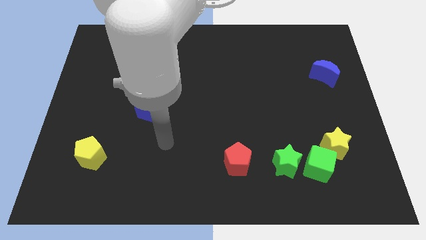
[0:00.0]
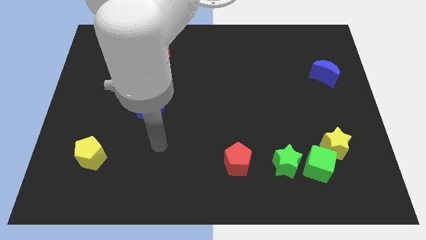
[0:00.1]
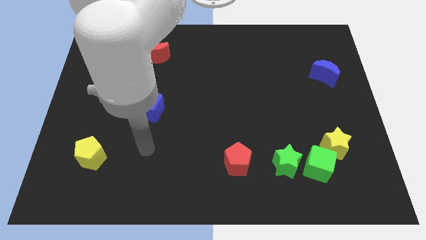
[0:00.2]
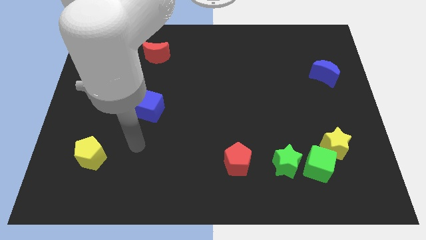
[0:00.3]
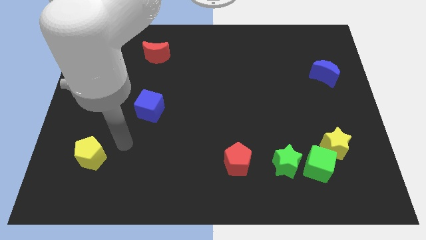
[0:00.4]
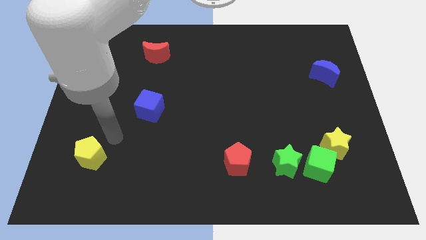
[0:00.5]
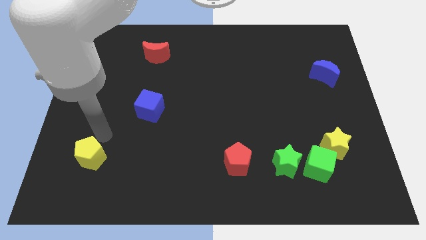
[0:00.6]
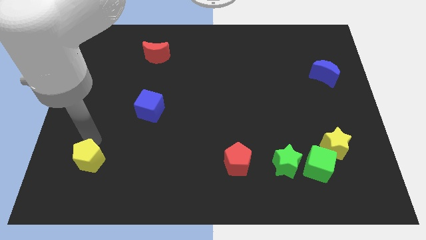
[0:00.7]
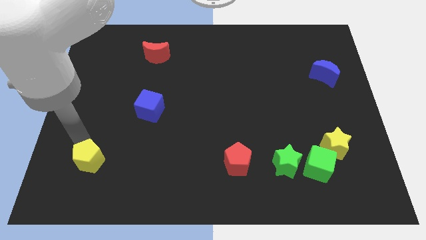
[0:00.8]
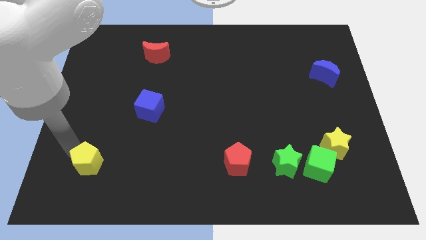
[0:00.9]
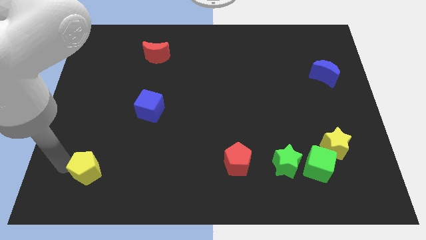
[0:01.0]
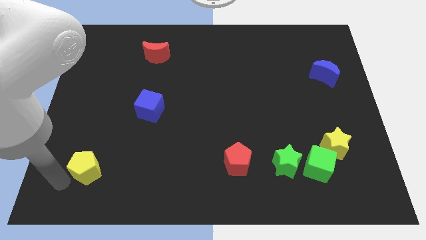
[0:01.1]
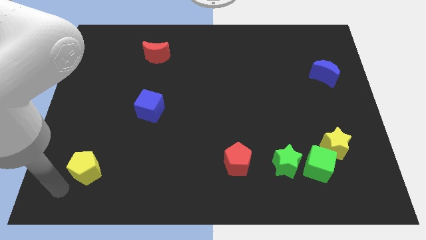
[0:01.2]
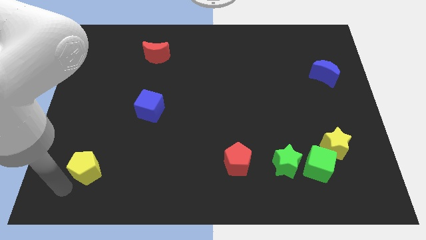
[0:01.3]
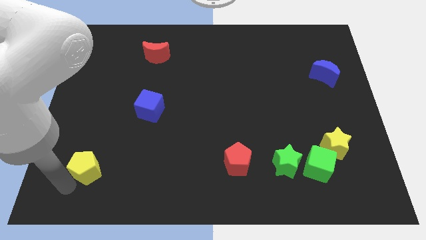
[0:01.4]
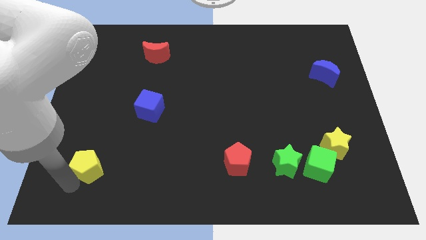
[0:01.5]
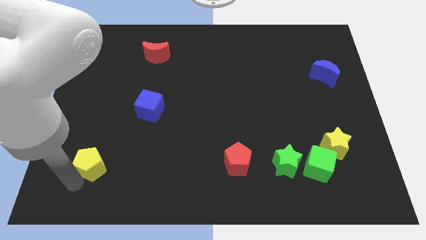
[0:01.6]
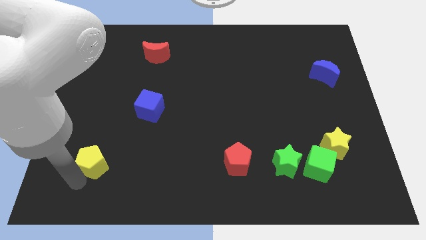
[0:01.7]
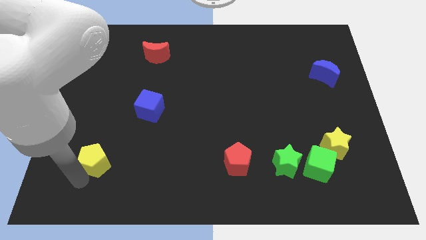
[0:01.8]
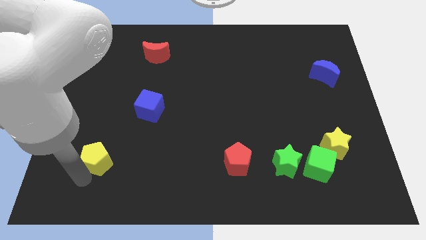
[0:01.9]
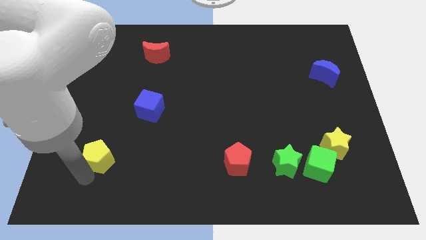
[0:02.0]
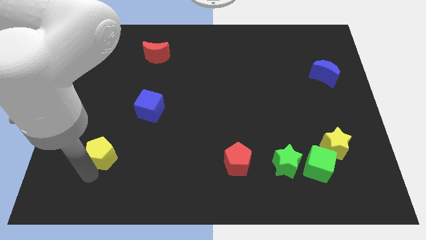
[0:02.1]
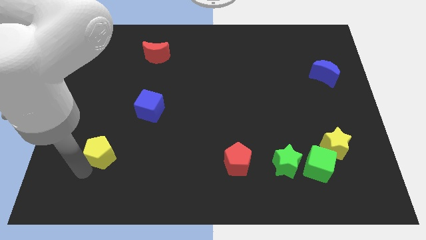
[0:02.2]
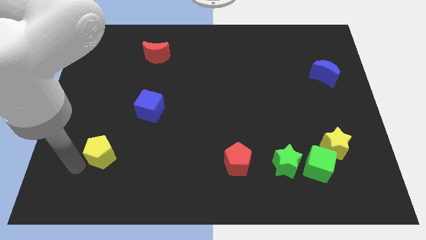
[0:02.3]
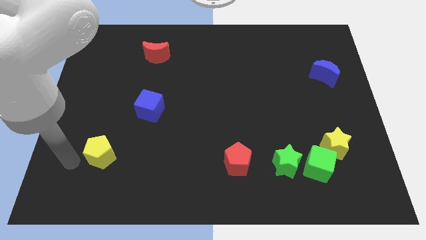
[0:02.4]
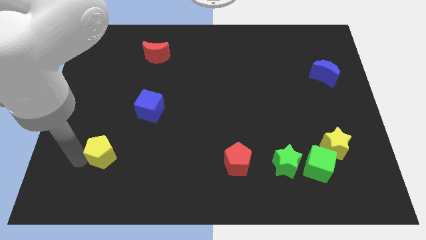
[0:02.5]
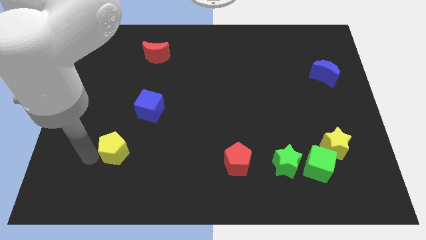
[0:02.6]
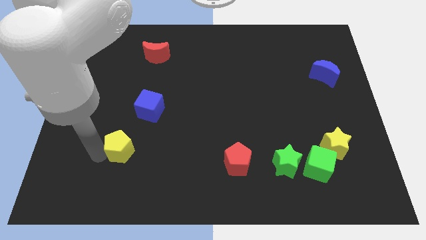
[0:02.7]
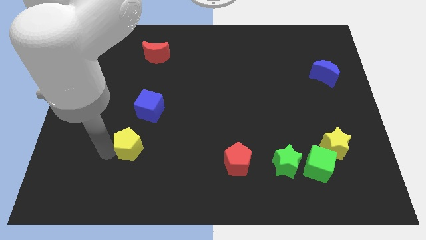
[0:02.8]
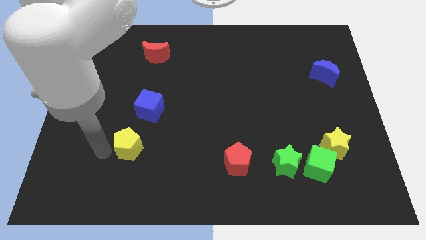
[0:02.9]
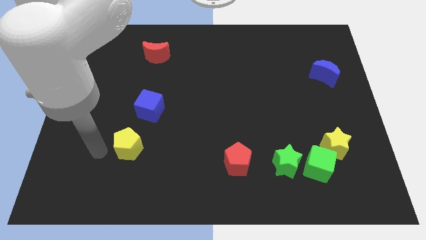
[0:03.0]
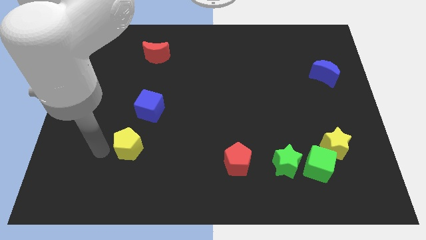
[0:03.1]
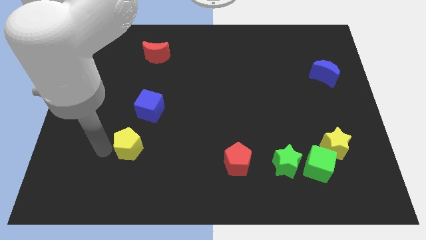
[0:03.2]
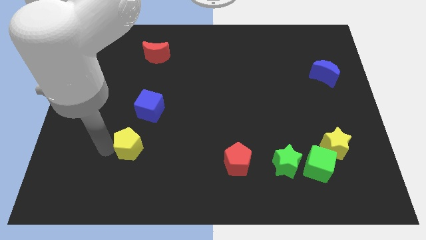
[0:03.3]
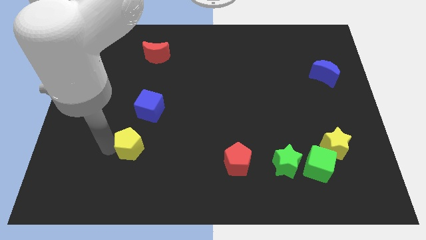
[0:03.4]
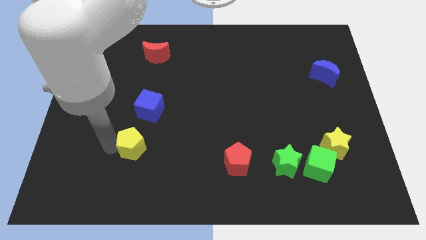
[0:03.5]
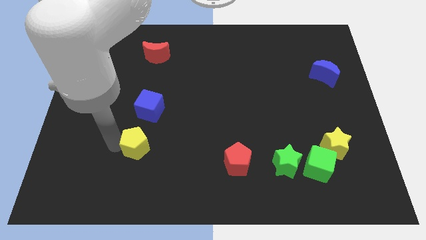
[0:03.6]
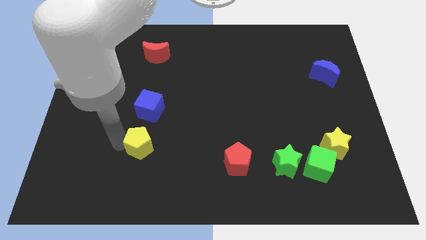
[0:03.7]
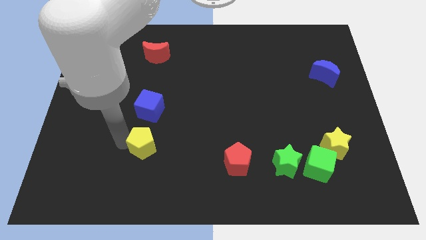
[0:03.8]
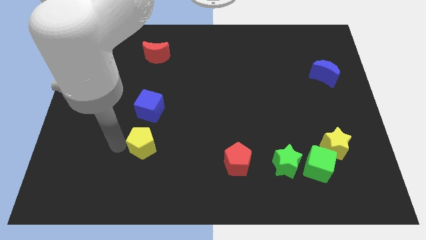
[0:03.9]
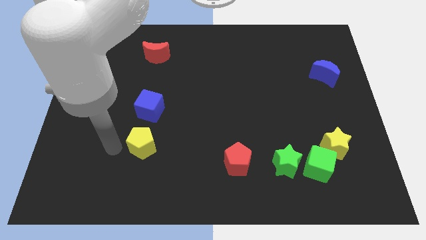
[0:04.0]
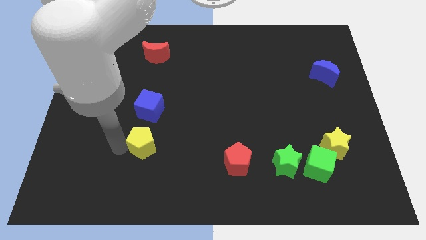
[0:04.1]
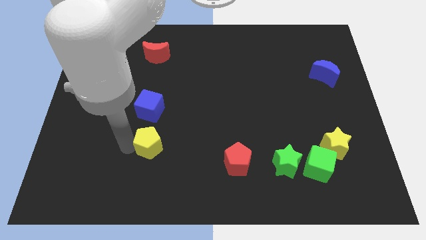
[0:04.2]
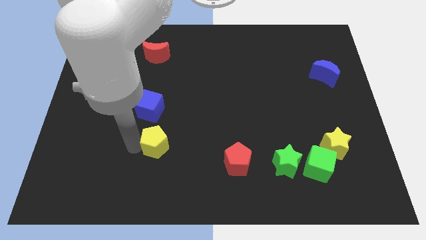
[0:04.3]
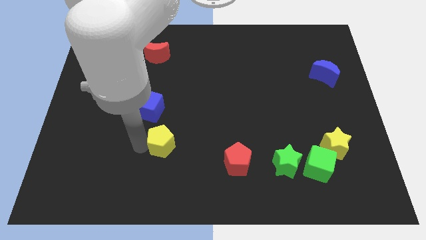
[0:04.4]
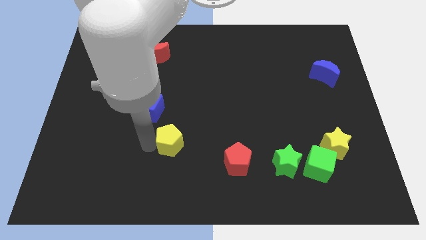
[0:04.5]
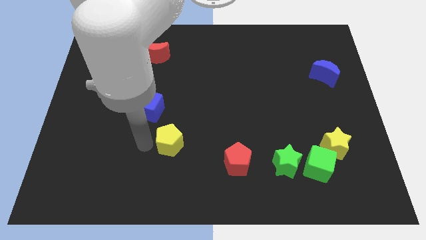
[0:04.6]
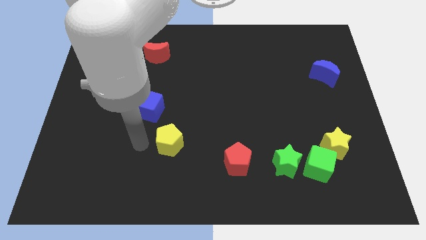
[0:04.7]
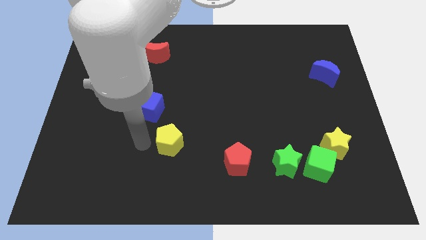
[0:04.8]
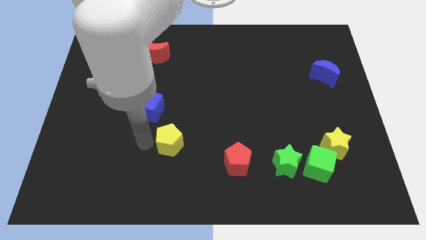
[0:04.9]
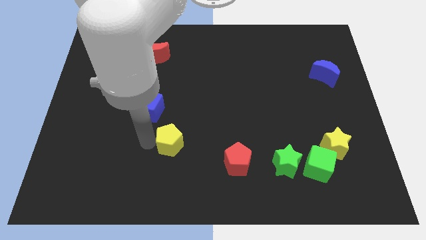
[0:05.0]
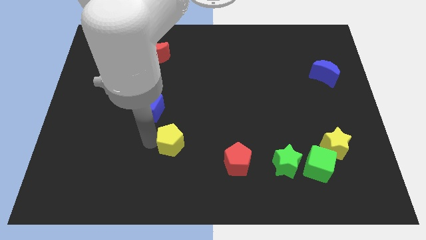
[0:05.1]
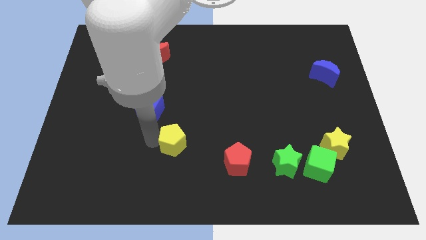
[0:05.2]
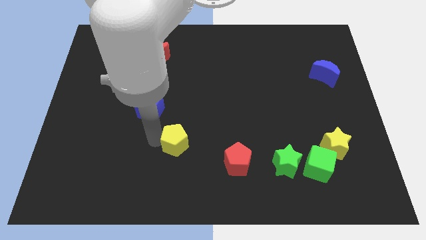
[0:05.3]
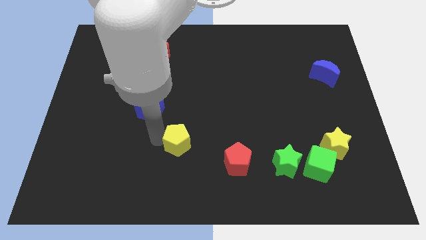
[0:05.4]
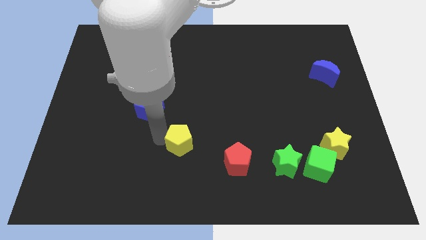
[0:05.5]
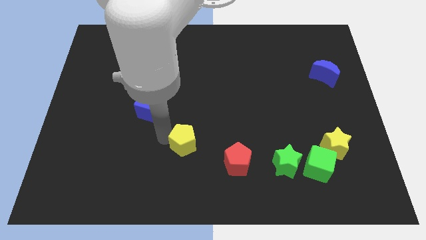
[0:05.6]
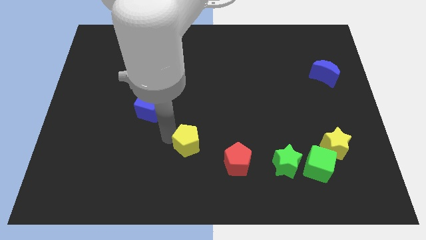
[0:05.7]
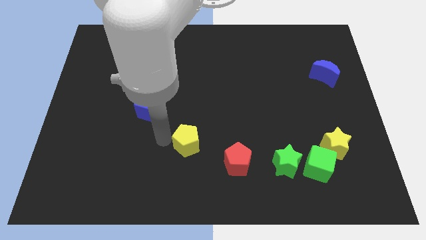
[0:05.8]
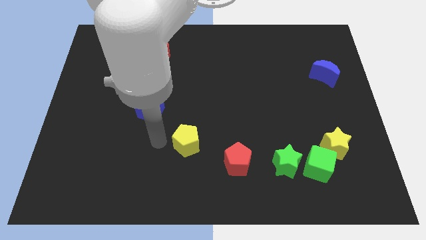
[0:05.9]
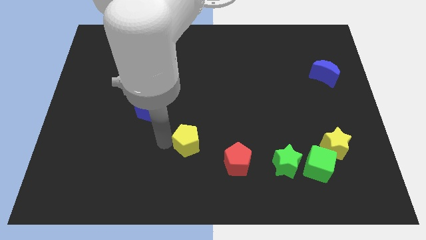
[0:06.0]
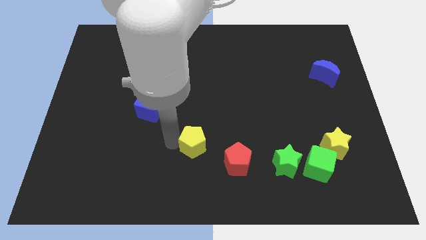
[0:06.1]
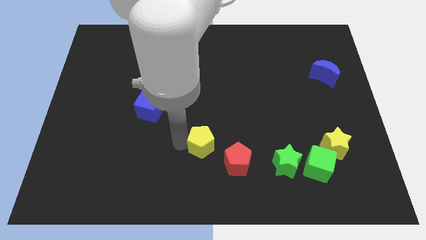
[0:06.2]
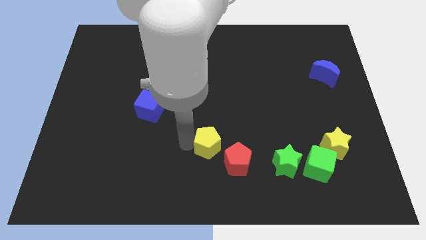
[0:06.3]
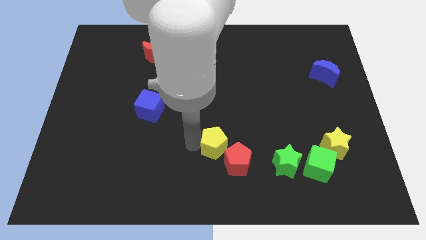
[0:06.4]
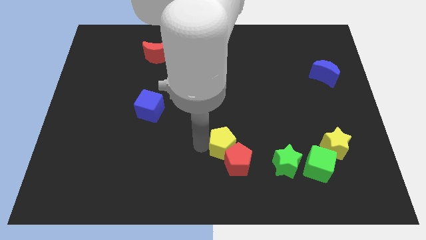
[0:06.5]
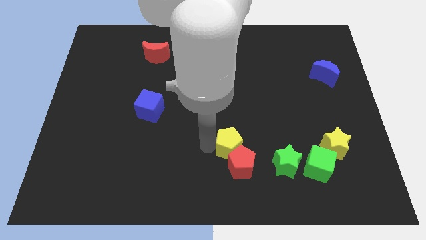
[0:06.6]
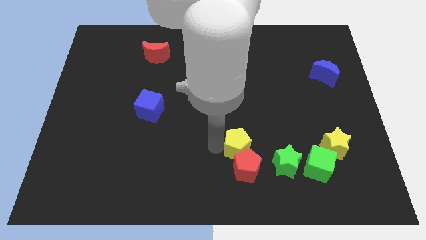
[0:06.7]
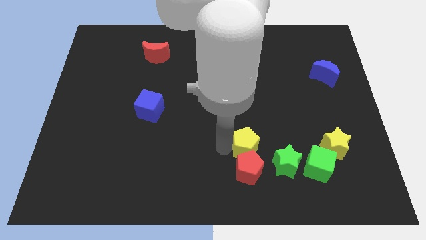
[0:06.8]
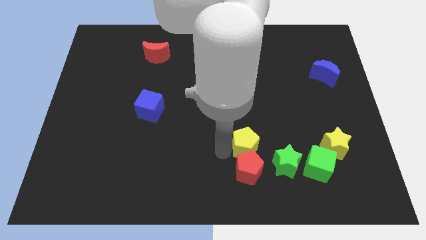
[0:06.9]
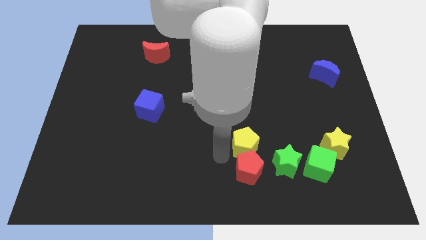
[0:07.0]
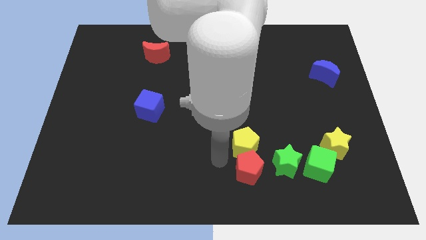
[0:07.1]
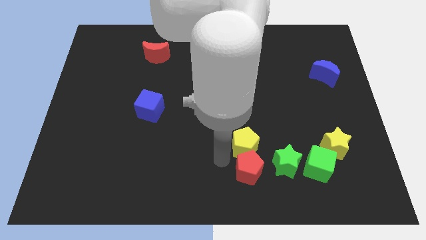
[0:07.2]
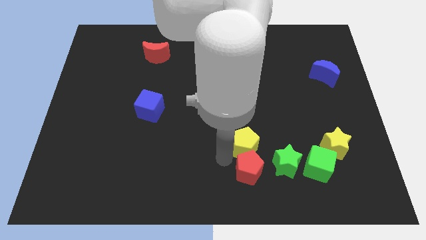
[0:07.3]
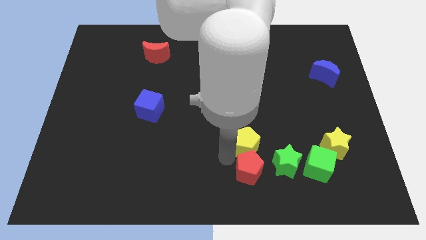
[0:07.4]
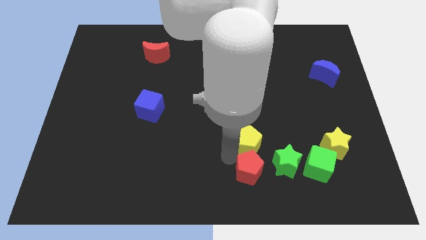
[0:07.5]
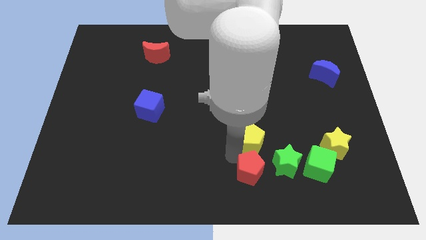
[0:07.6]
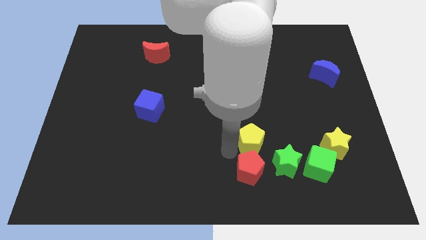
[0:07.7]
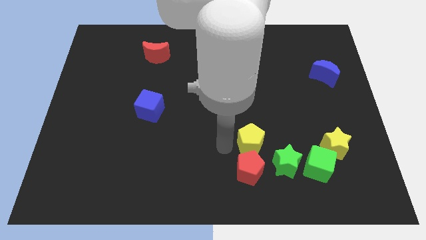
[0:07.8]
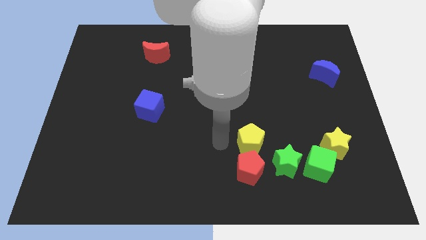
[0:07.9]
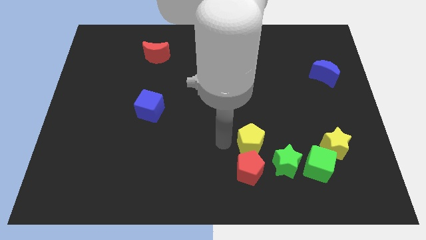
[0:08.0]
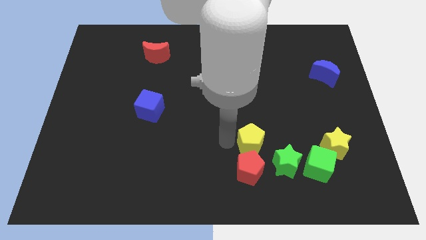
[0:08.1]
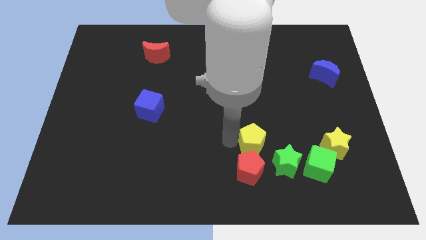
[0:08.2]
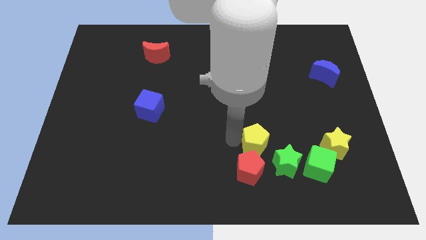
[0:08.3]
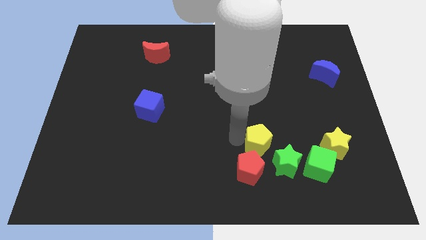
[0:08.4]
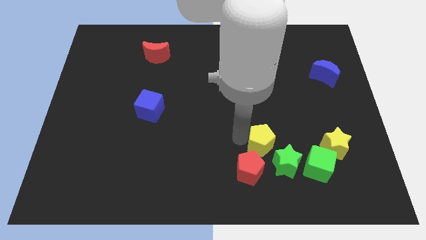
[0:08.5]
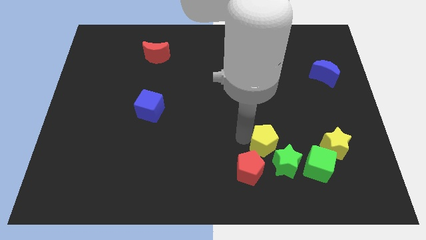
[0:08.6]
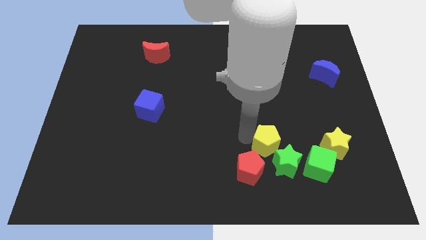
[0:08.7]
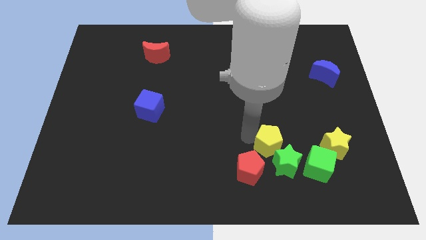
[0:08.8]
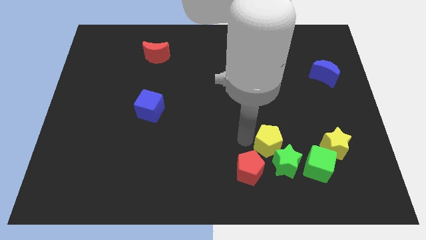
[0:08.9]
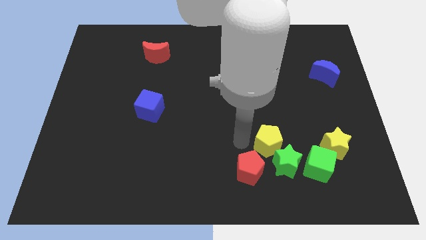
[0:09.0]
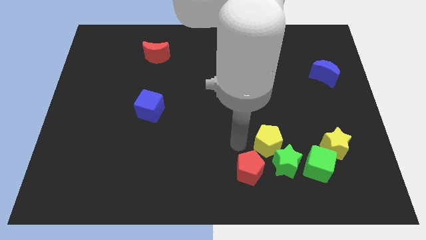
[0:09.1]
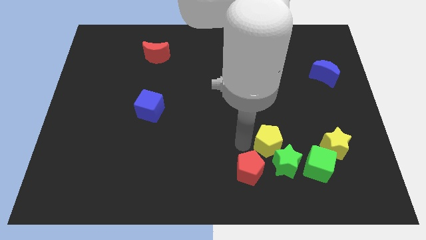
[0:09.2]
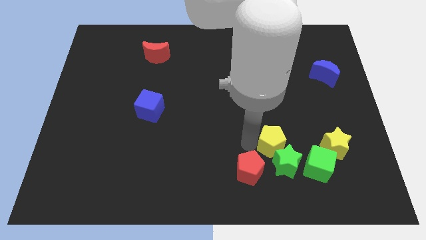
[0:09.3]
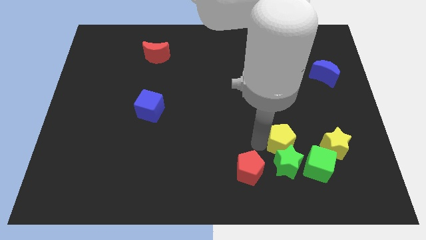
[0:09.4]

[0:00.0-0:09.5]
put the yellow pentagon to the top right side of the green star
